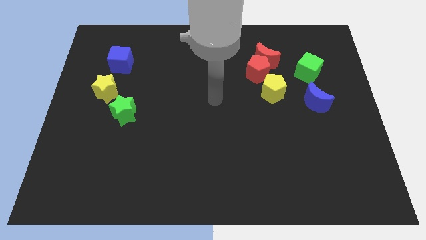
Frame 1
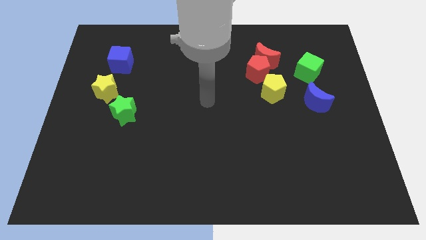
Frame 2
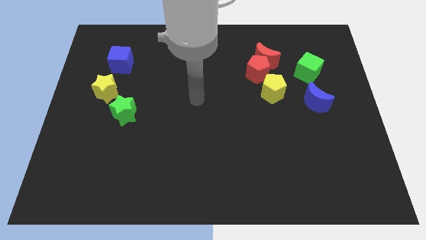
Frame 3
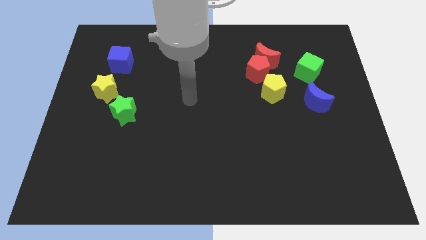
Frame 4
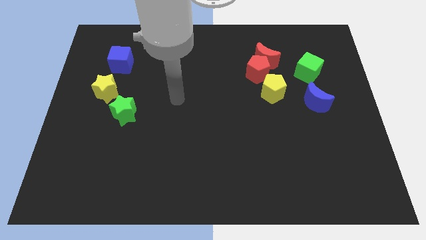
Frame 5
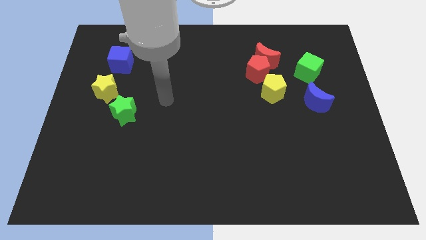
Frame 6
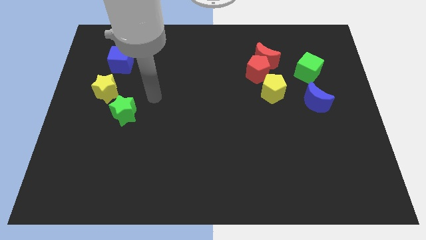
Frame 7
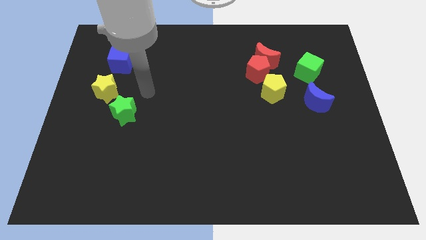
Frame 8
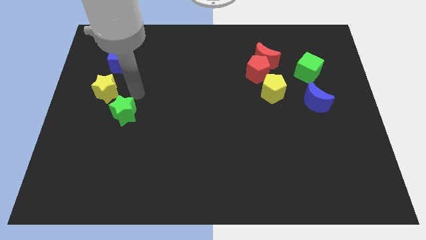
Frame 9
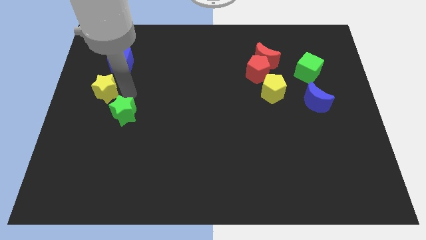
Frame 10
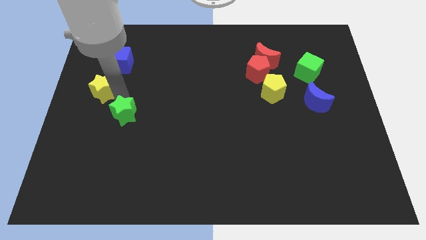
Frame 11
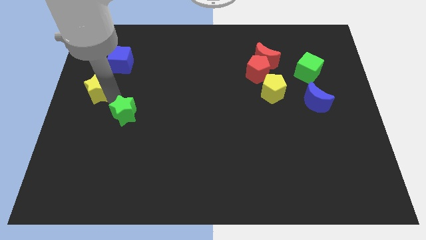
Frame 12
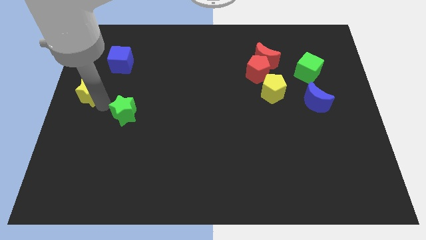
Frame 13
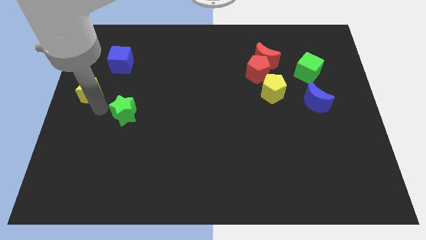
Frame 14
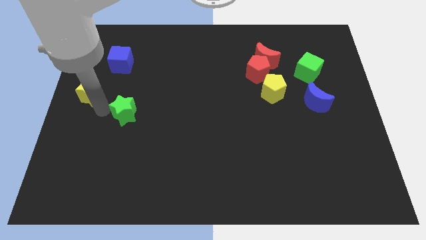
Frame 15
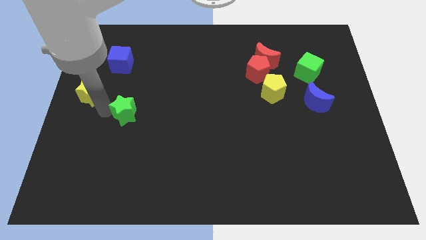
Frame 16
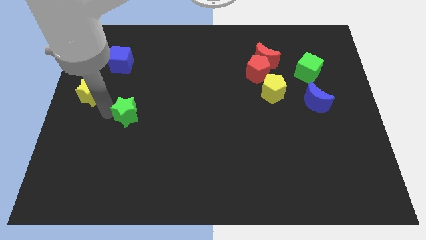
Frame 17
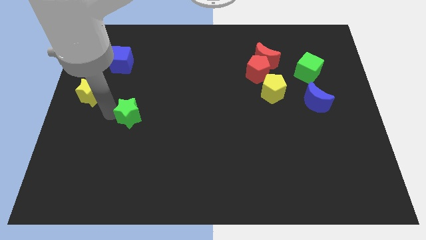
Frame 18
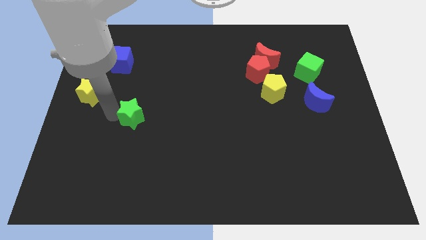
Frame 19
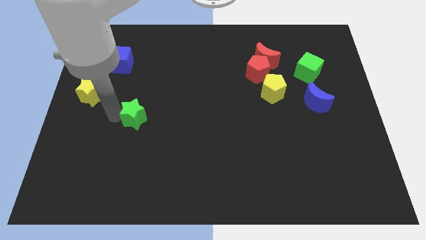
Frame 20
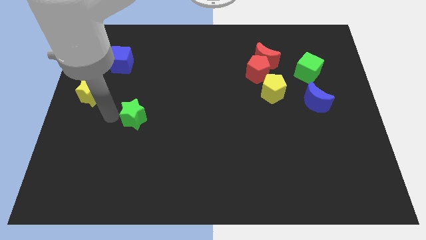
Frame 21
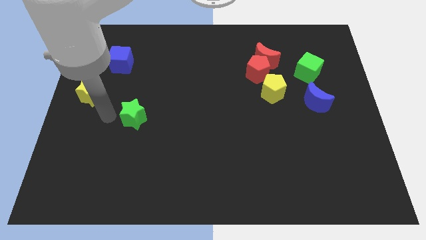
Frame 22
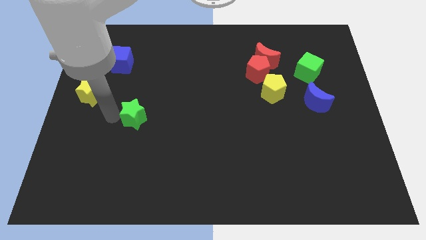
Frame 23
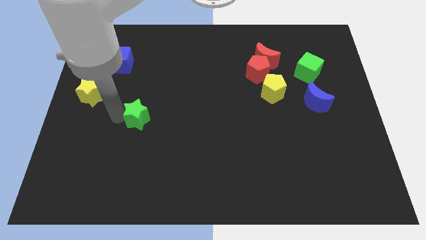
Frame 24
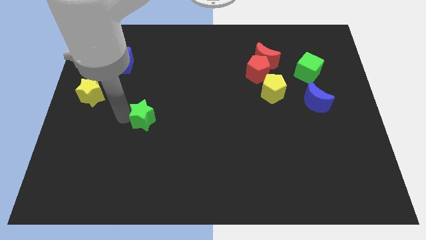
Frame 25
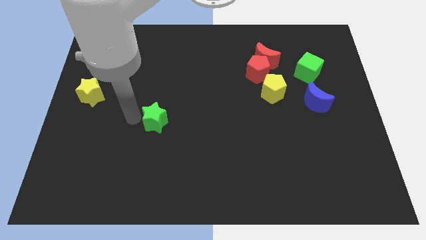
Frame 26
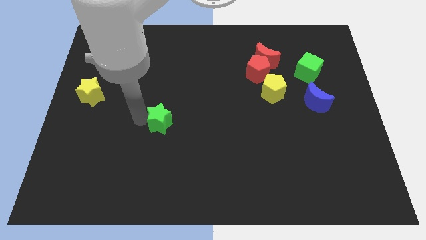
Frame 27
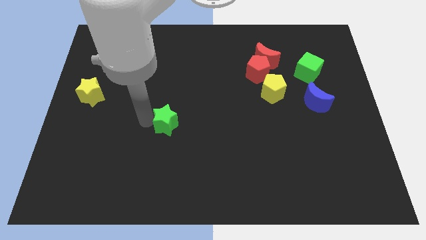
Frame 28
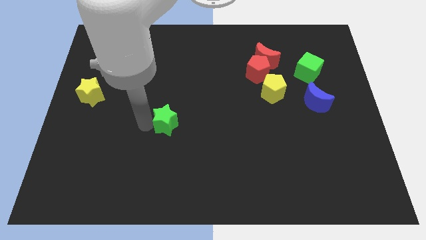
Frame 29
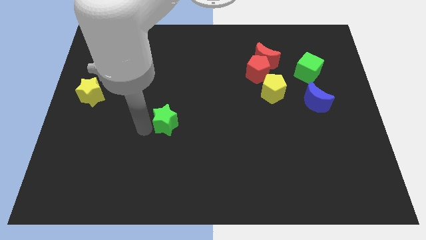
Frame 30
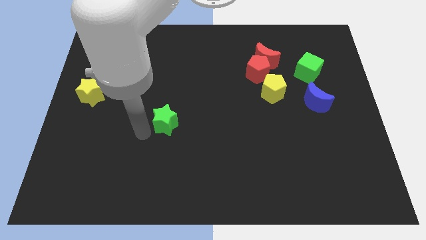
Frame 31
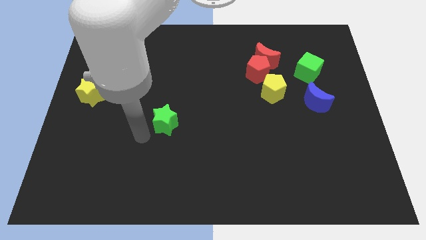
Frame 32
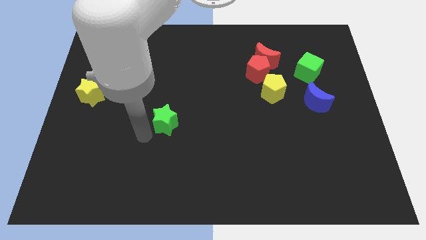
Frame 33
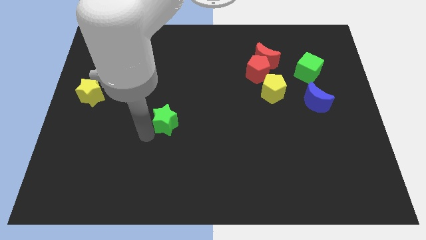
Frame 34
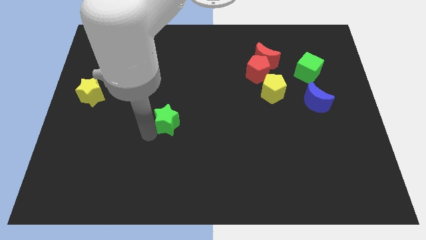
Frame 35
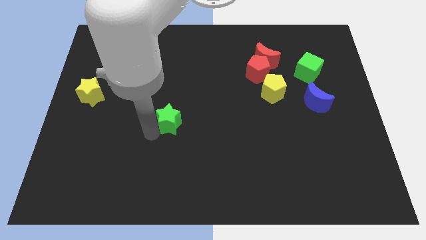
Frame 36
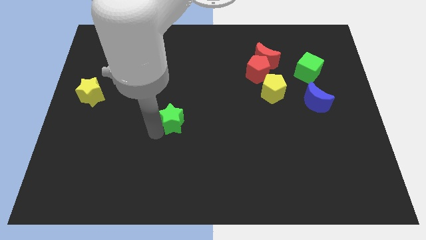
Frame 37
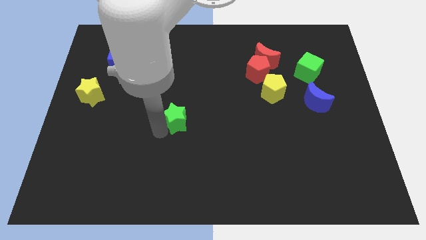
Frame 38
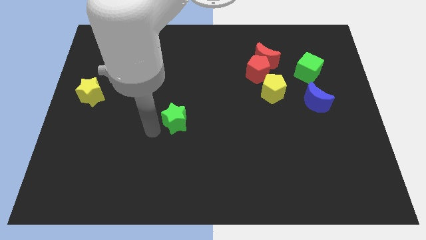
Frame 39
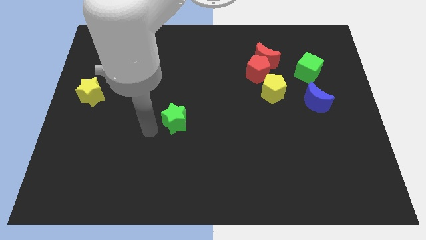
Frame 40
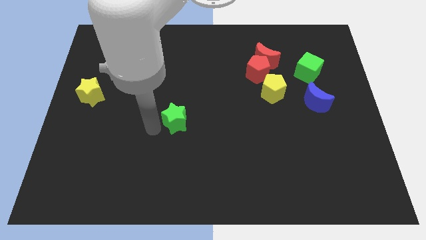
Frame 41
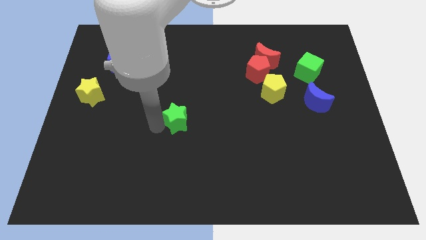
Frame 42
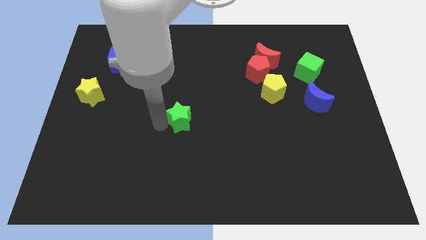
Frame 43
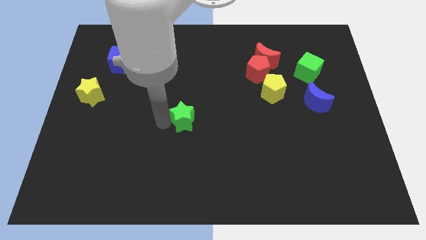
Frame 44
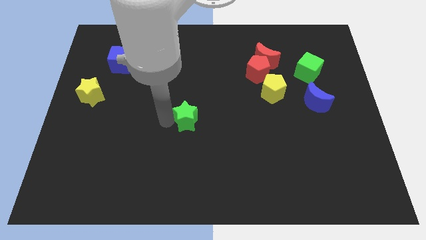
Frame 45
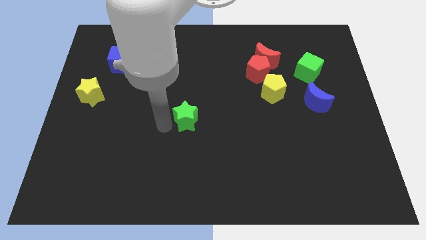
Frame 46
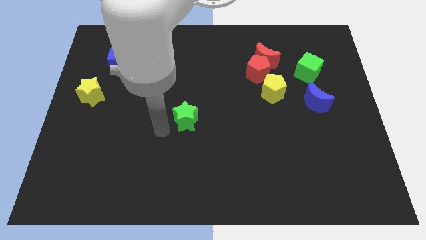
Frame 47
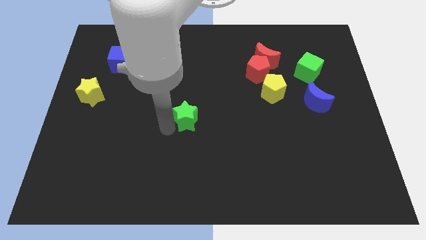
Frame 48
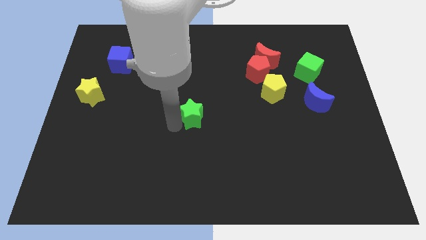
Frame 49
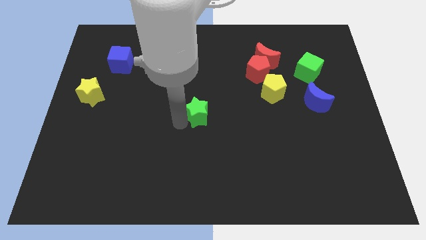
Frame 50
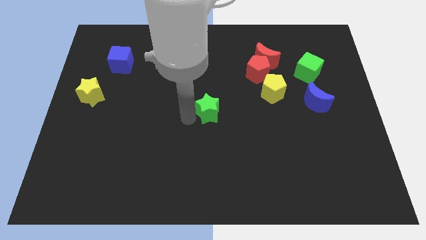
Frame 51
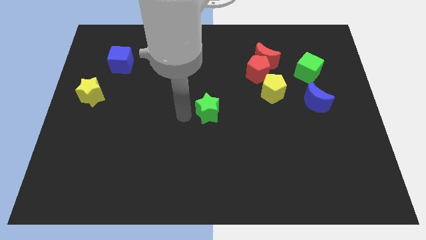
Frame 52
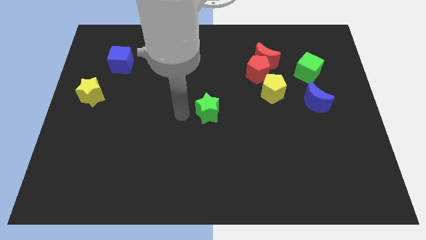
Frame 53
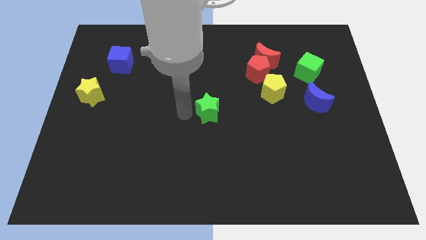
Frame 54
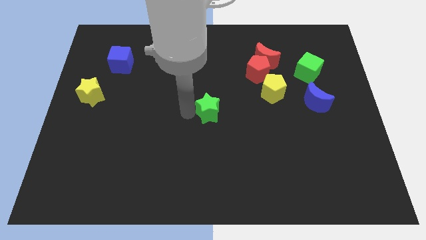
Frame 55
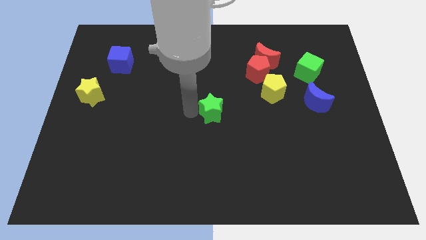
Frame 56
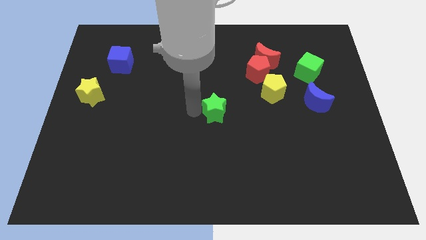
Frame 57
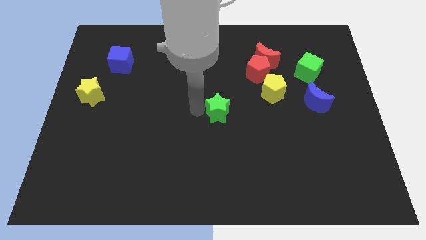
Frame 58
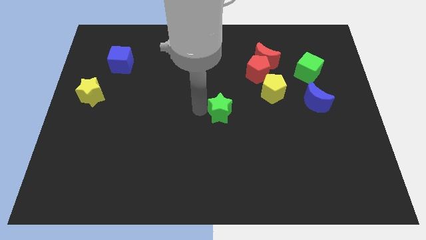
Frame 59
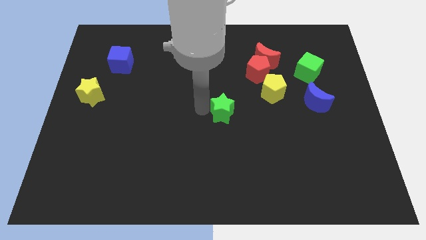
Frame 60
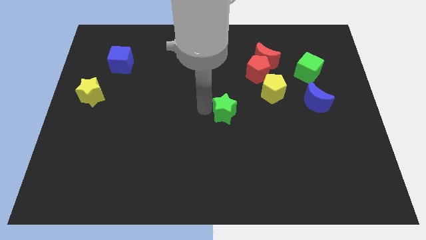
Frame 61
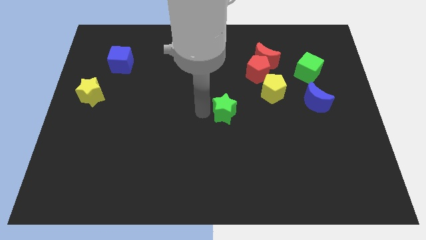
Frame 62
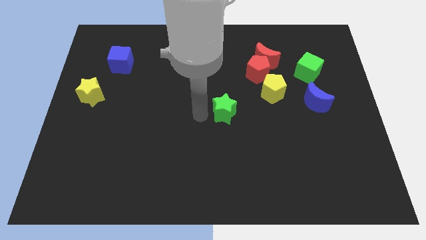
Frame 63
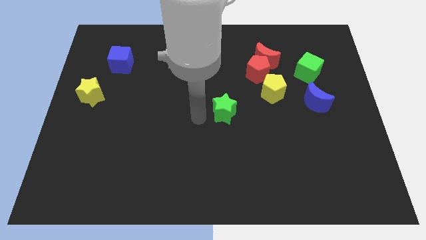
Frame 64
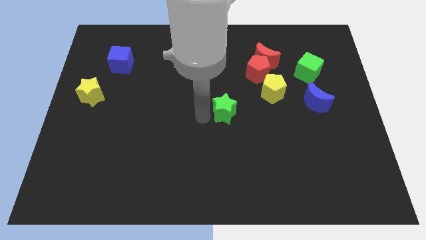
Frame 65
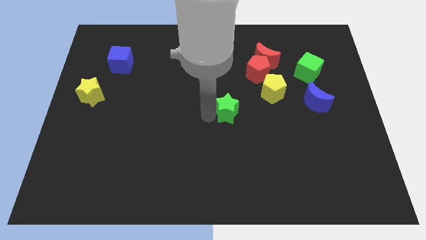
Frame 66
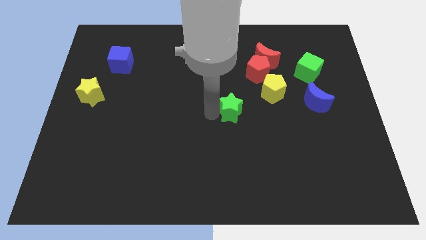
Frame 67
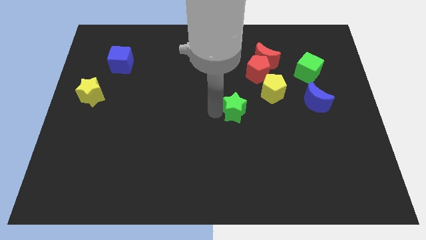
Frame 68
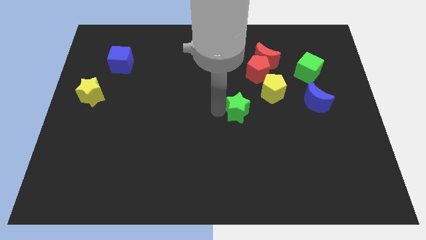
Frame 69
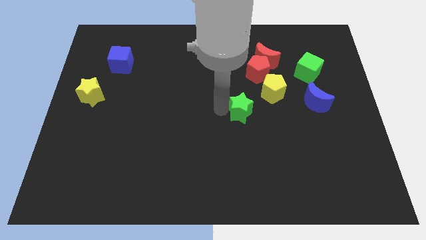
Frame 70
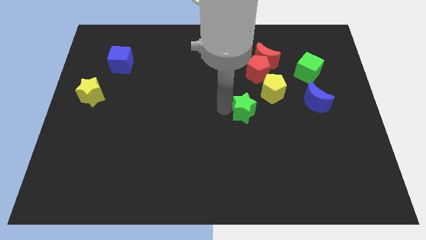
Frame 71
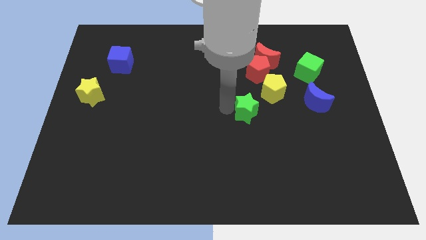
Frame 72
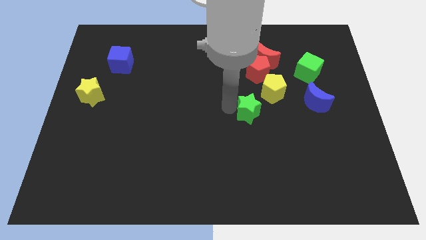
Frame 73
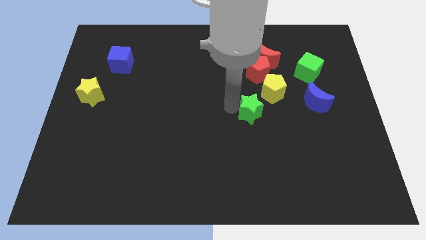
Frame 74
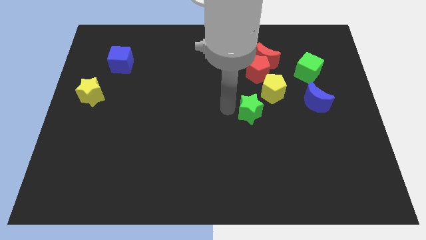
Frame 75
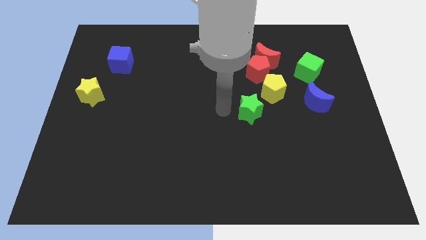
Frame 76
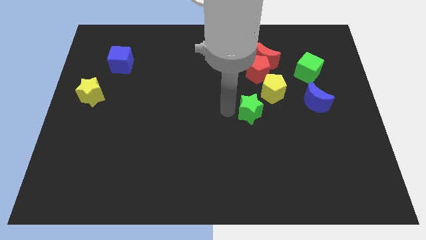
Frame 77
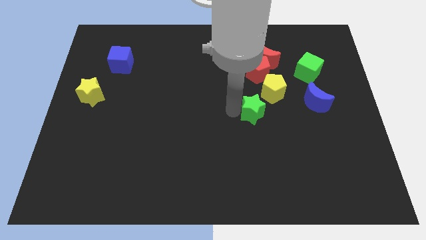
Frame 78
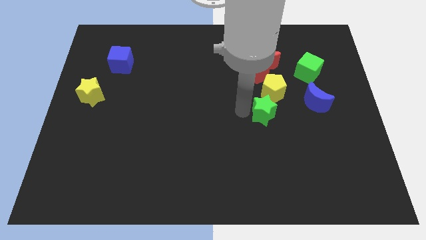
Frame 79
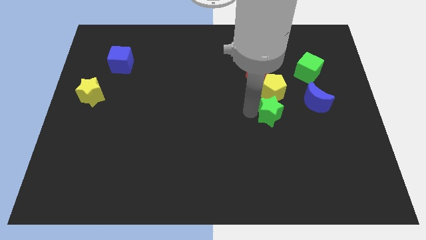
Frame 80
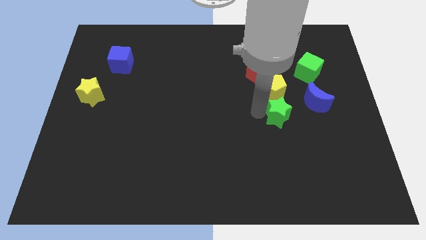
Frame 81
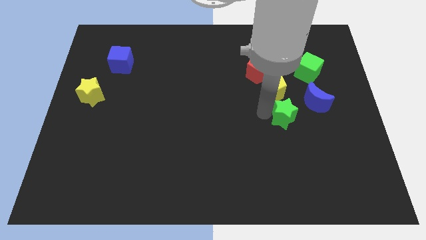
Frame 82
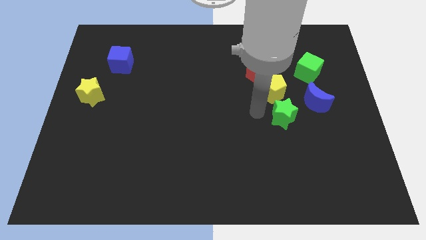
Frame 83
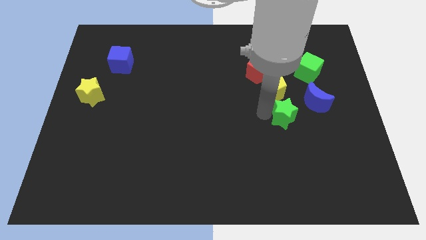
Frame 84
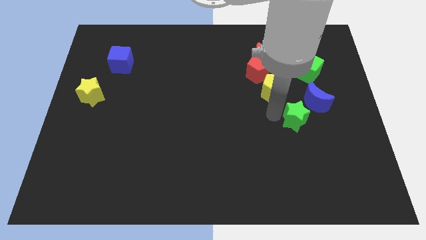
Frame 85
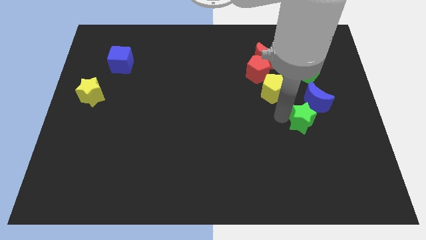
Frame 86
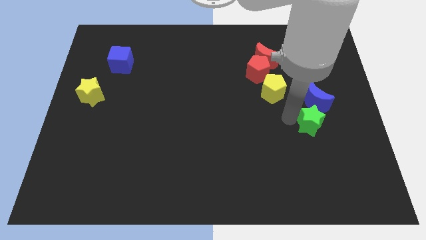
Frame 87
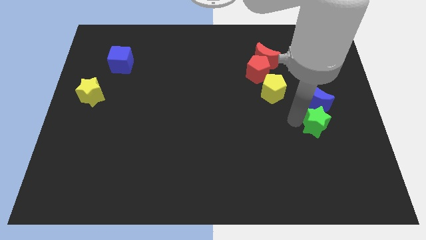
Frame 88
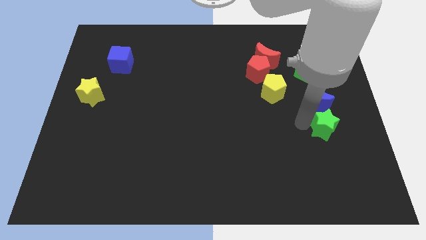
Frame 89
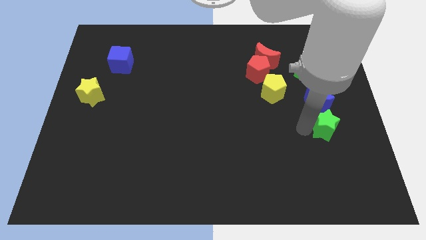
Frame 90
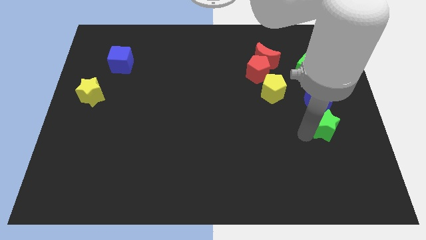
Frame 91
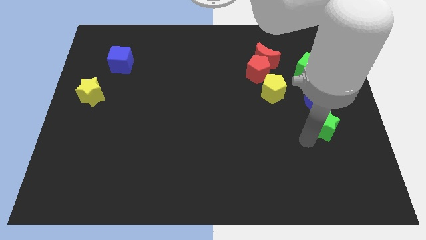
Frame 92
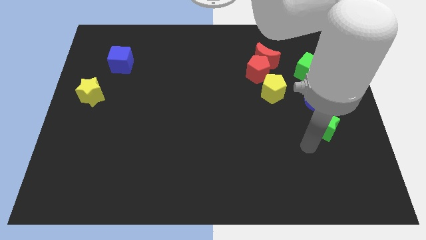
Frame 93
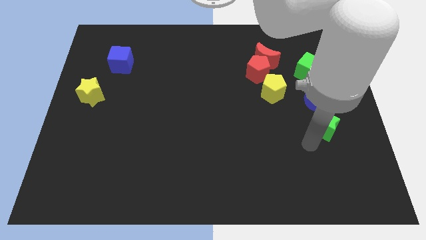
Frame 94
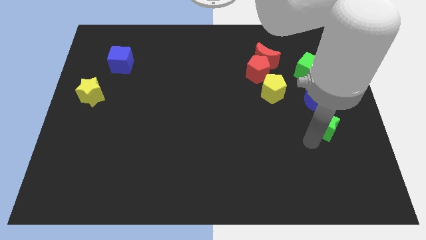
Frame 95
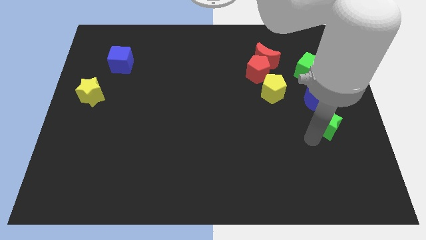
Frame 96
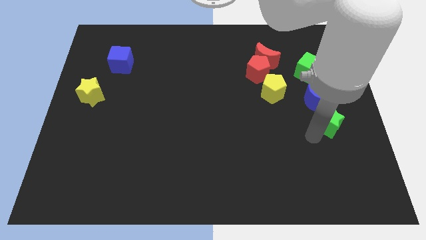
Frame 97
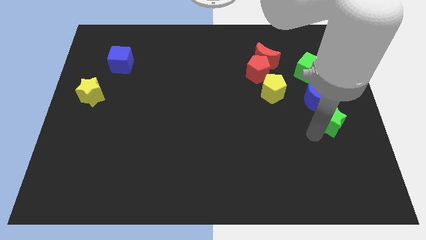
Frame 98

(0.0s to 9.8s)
move the green star to the center right
